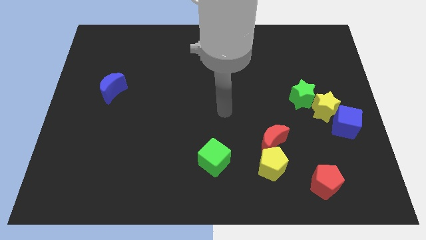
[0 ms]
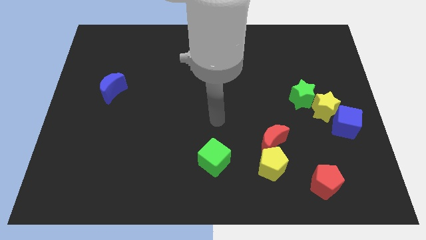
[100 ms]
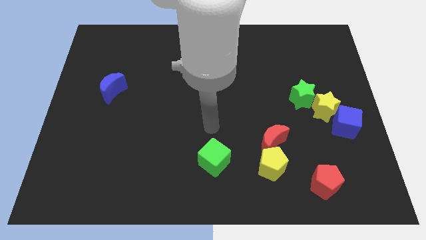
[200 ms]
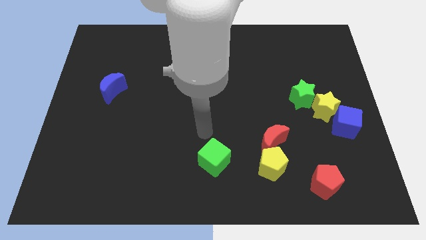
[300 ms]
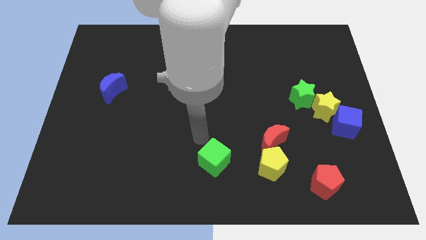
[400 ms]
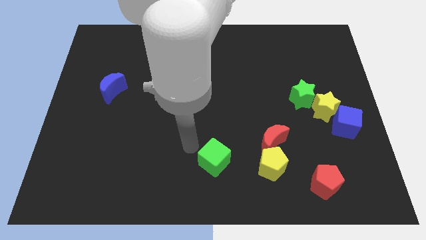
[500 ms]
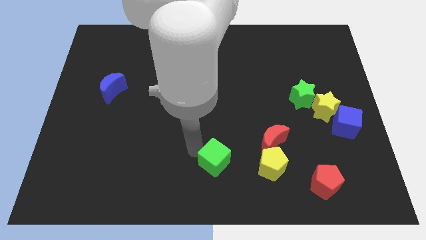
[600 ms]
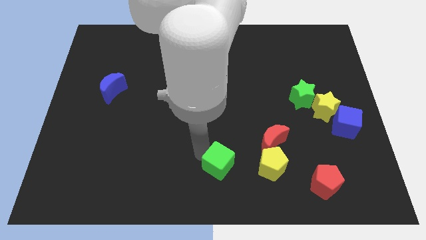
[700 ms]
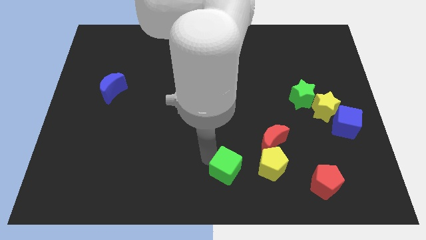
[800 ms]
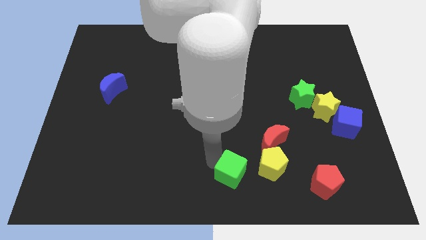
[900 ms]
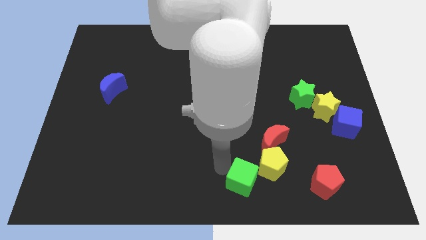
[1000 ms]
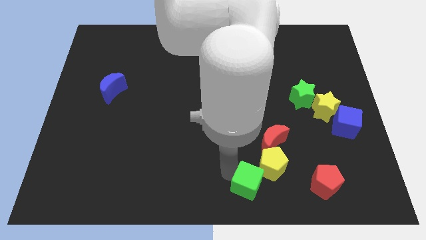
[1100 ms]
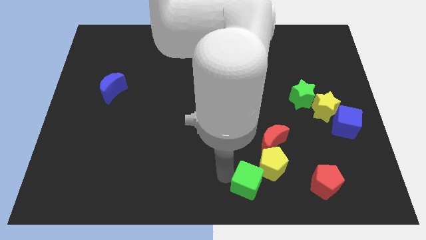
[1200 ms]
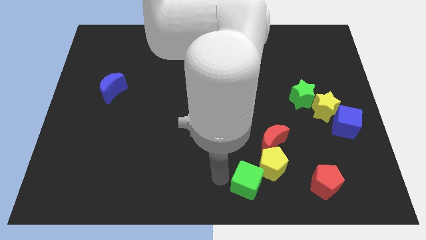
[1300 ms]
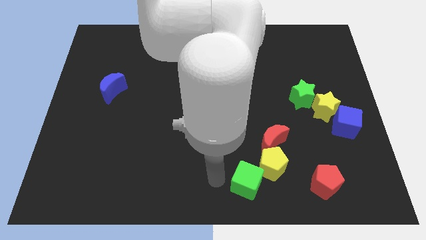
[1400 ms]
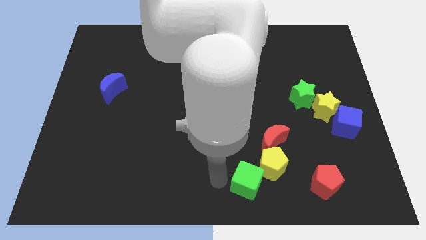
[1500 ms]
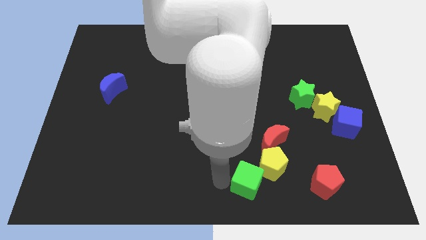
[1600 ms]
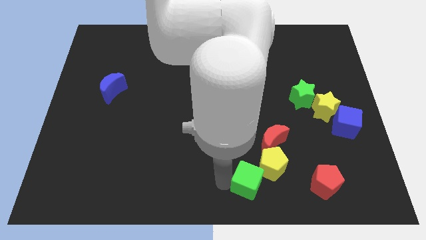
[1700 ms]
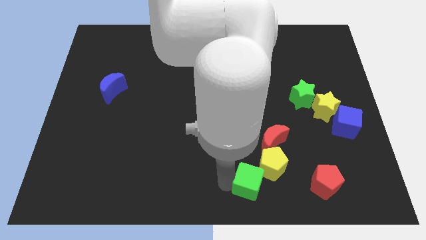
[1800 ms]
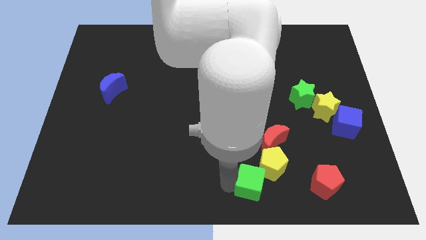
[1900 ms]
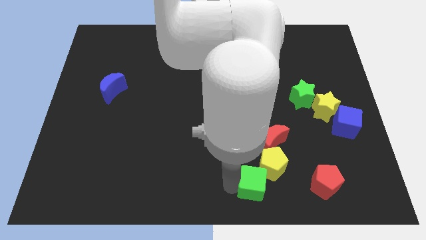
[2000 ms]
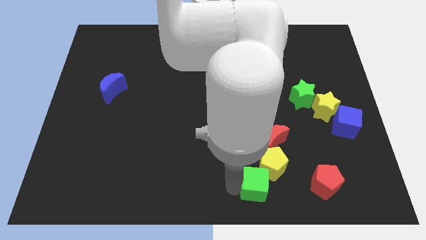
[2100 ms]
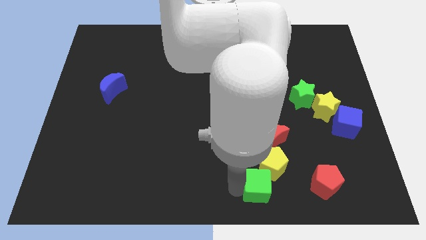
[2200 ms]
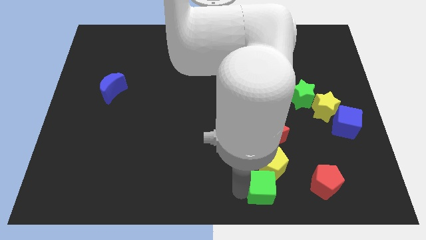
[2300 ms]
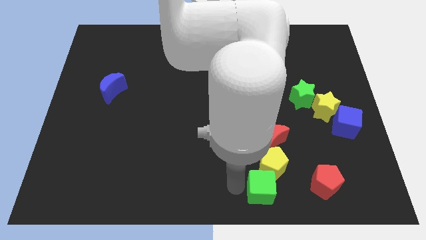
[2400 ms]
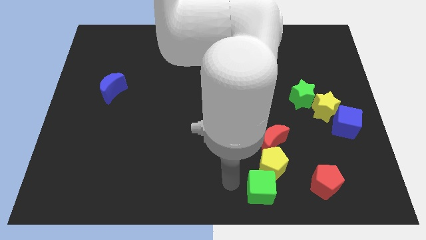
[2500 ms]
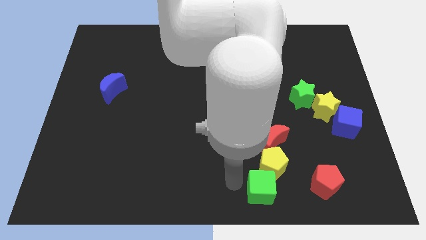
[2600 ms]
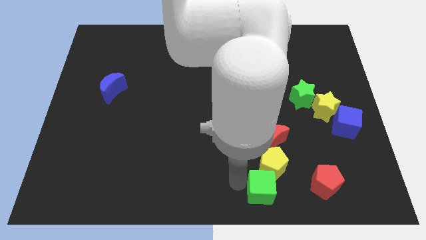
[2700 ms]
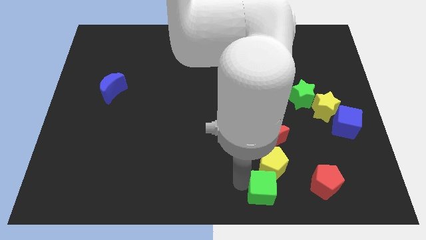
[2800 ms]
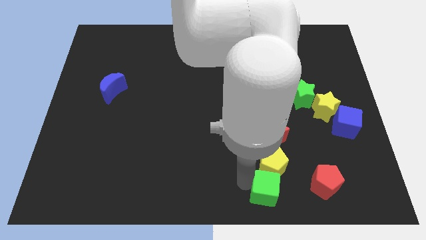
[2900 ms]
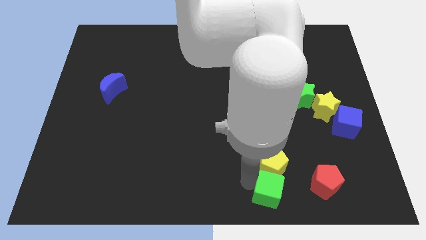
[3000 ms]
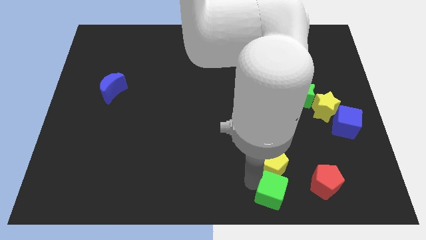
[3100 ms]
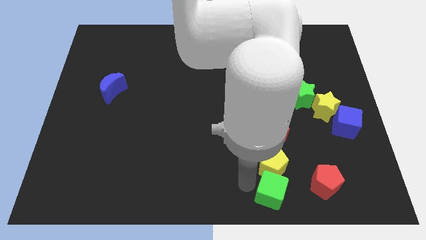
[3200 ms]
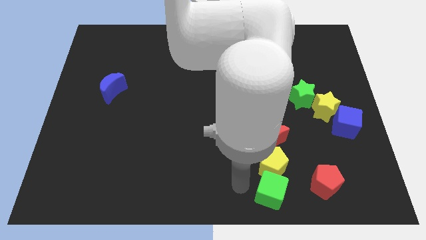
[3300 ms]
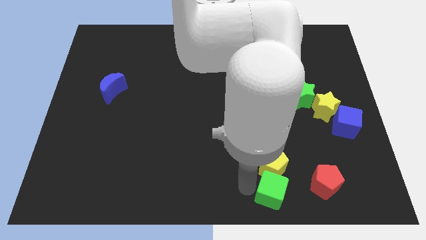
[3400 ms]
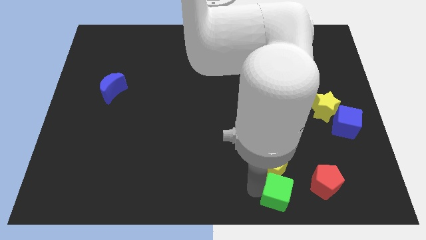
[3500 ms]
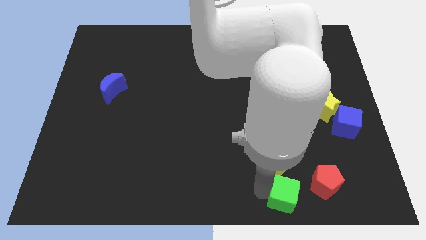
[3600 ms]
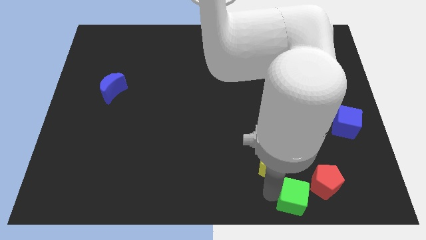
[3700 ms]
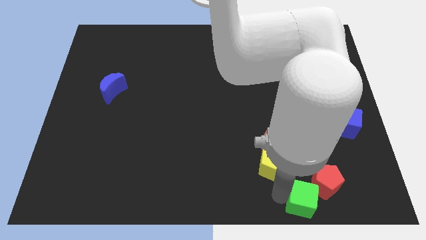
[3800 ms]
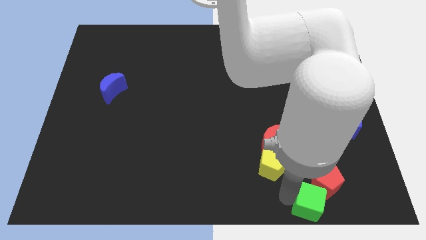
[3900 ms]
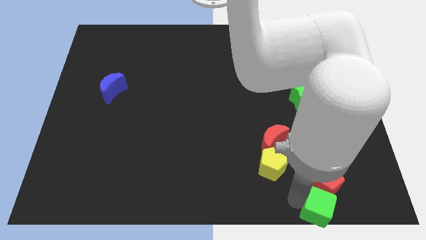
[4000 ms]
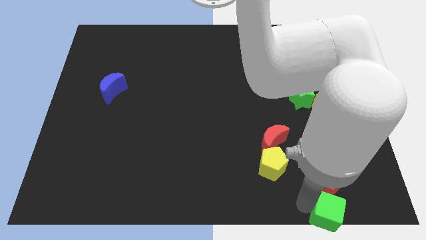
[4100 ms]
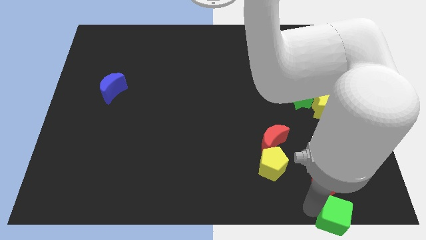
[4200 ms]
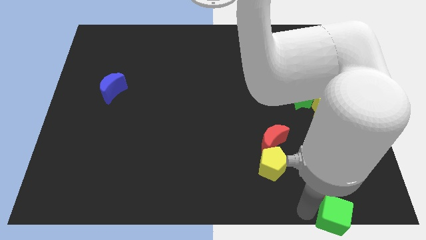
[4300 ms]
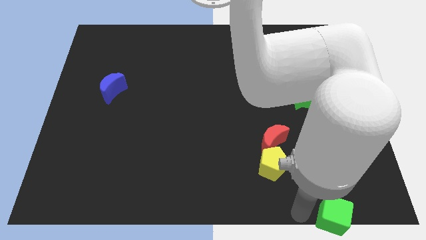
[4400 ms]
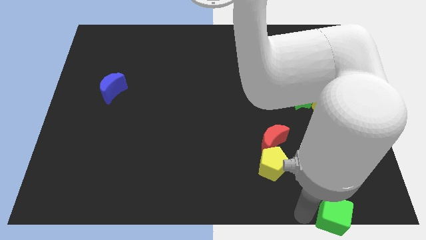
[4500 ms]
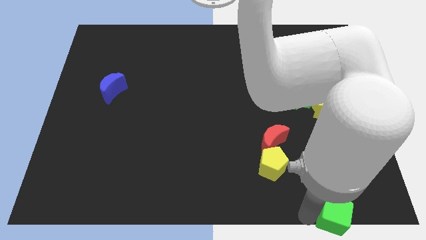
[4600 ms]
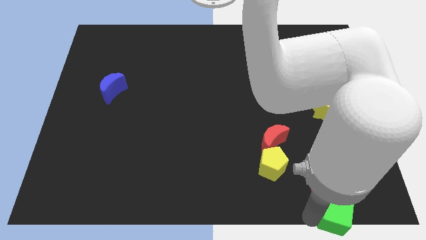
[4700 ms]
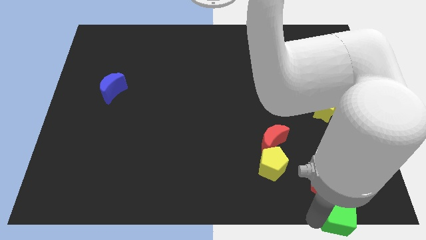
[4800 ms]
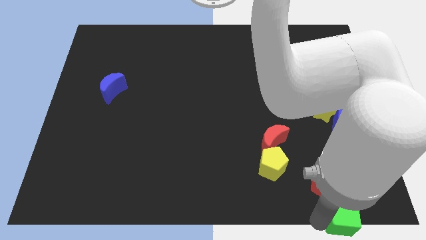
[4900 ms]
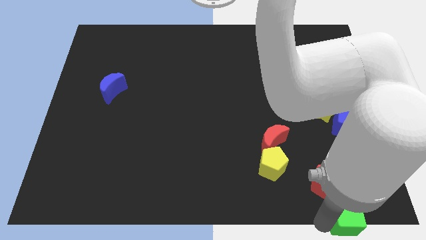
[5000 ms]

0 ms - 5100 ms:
put the green cube to the bottom right
